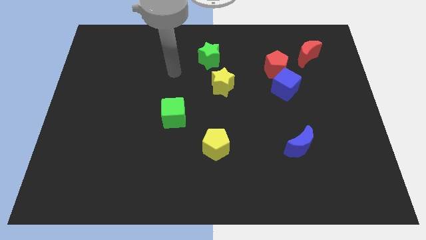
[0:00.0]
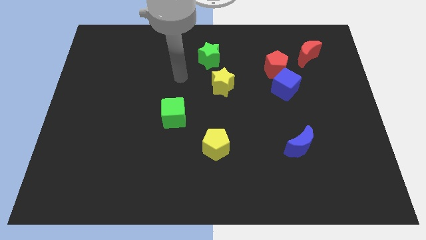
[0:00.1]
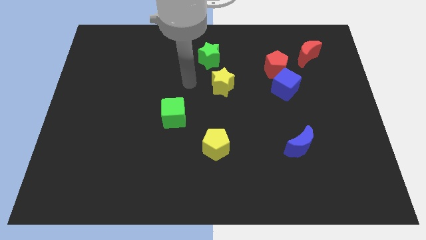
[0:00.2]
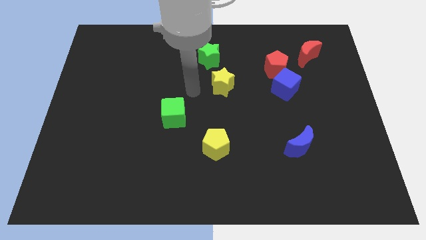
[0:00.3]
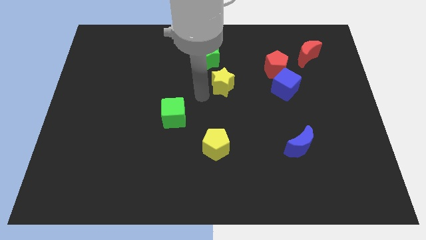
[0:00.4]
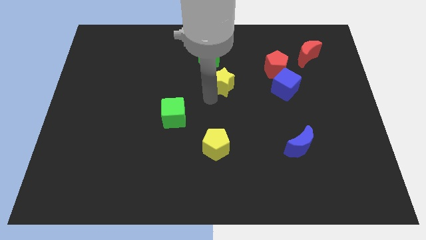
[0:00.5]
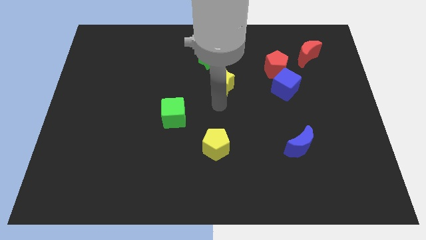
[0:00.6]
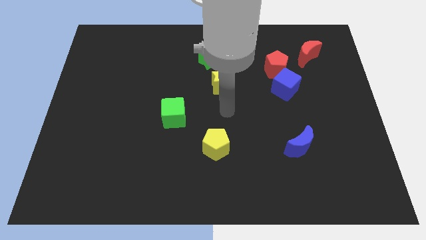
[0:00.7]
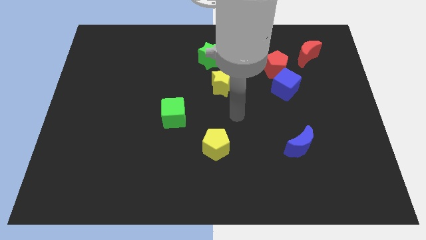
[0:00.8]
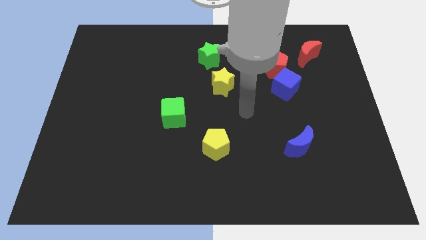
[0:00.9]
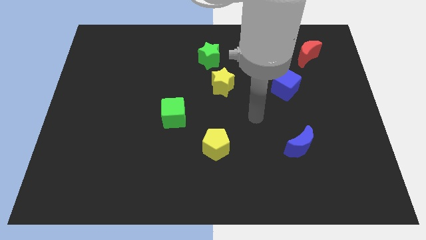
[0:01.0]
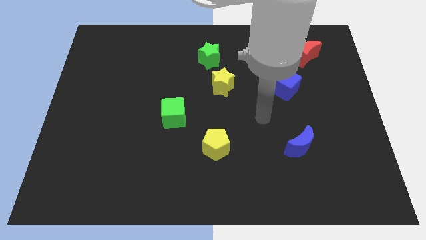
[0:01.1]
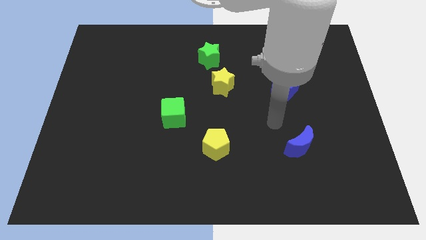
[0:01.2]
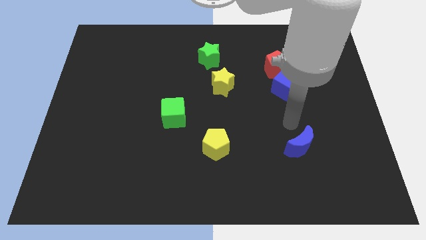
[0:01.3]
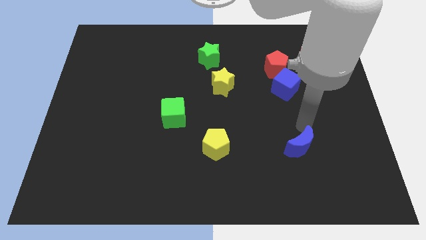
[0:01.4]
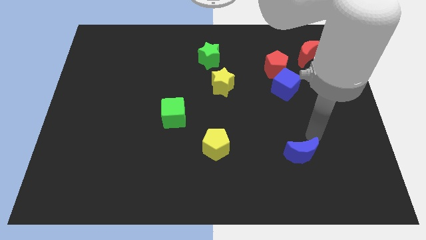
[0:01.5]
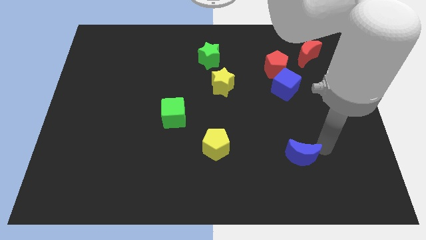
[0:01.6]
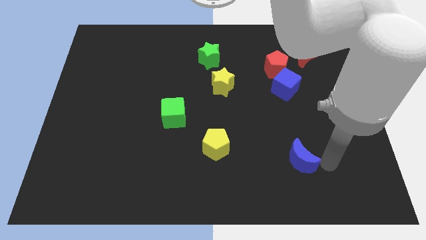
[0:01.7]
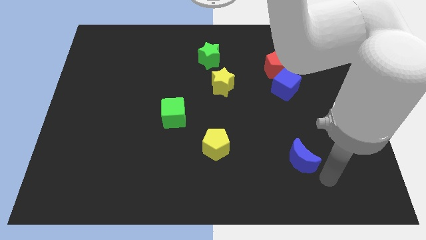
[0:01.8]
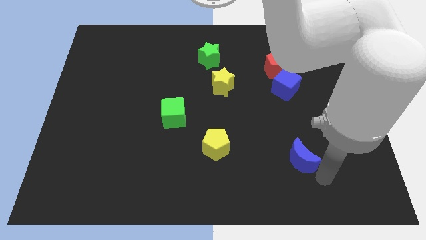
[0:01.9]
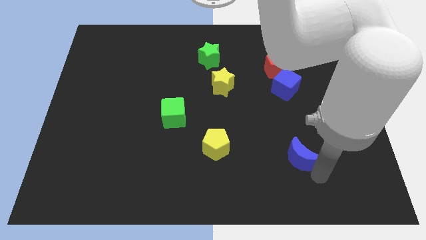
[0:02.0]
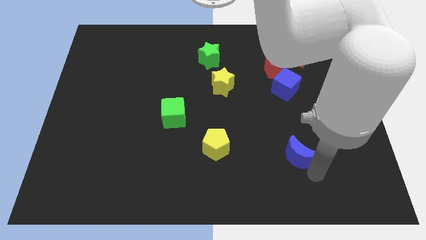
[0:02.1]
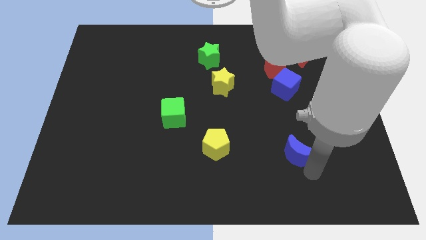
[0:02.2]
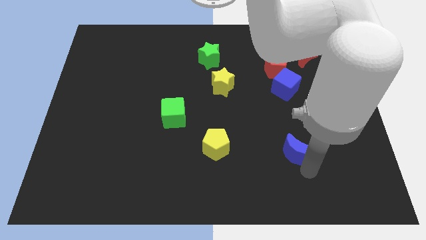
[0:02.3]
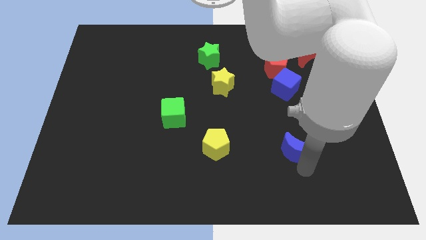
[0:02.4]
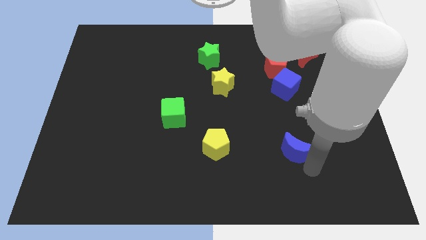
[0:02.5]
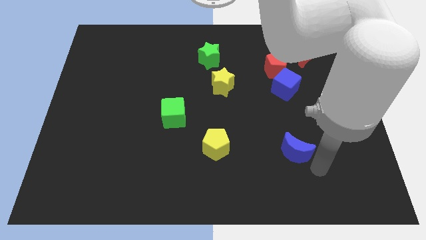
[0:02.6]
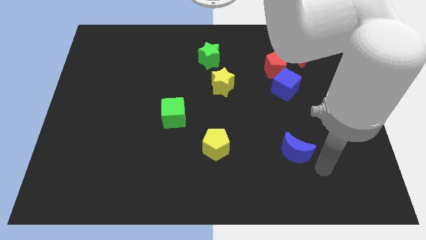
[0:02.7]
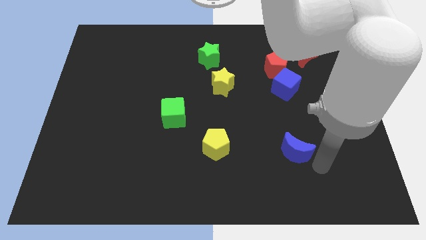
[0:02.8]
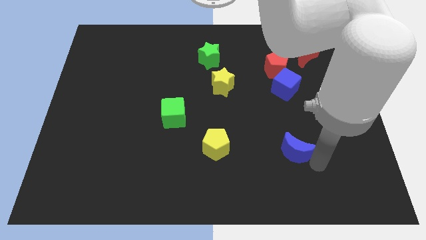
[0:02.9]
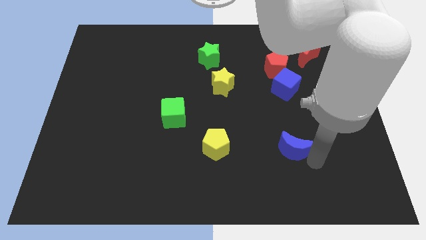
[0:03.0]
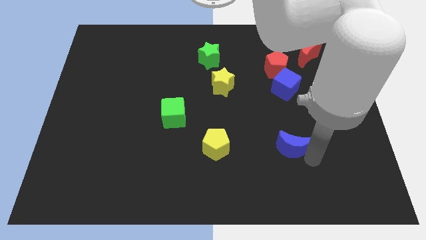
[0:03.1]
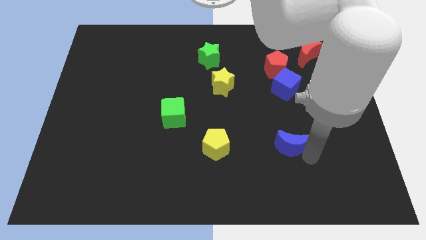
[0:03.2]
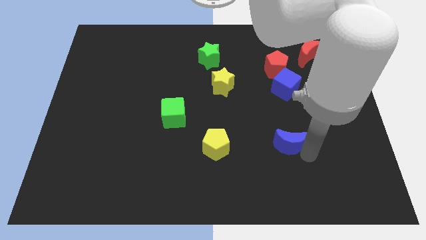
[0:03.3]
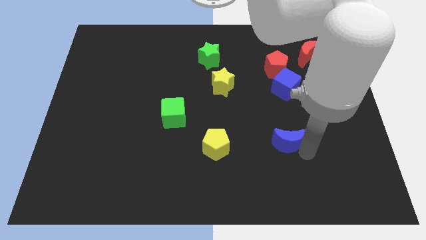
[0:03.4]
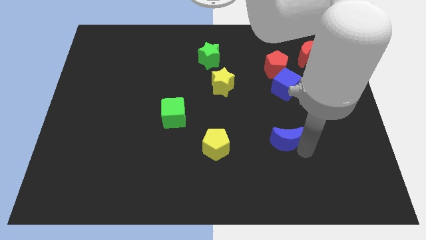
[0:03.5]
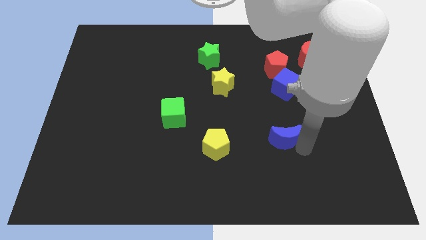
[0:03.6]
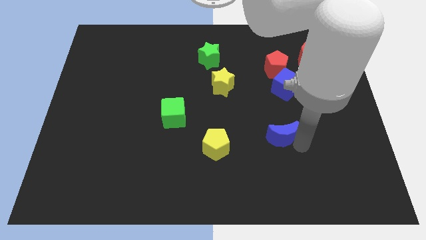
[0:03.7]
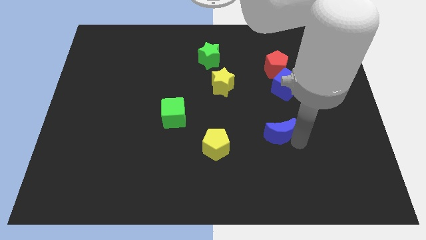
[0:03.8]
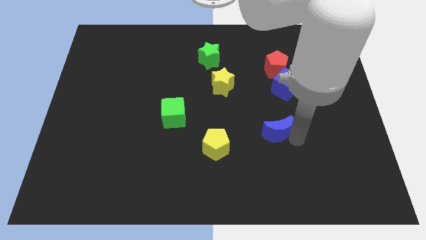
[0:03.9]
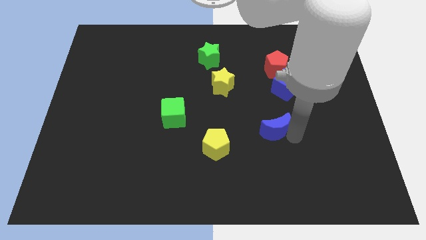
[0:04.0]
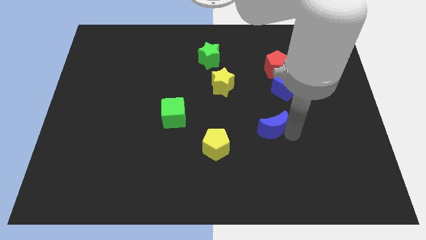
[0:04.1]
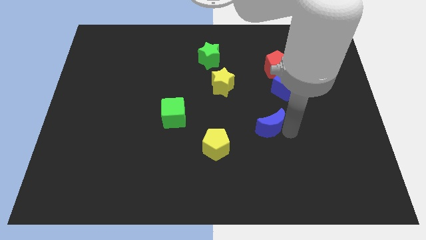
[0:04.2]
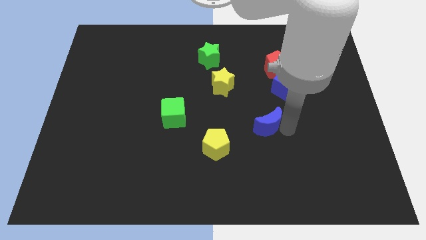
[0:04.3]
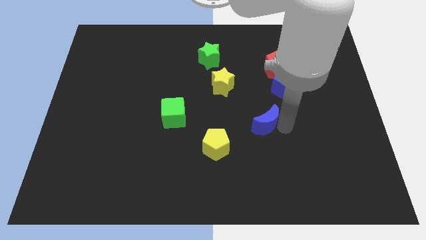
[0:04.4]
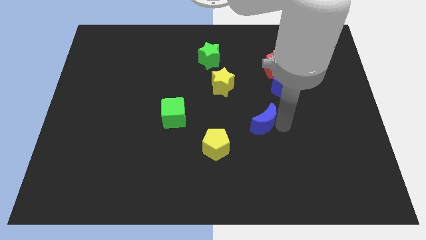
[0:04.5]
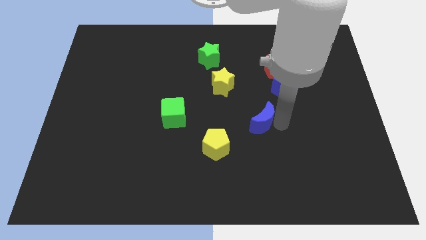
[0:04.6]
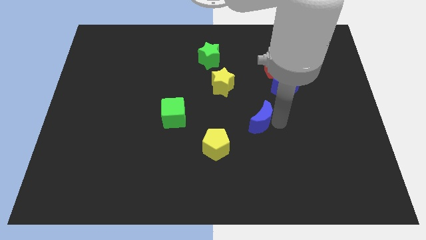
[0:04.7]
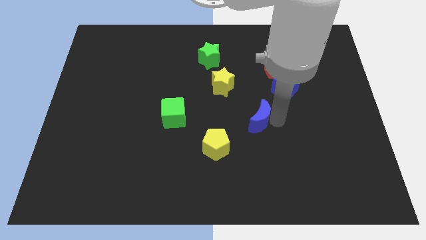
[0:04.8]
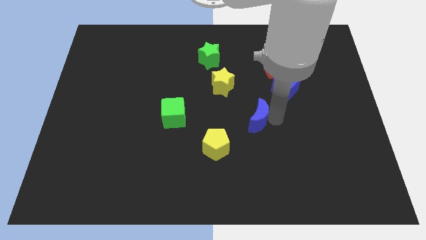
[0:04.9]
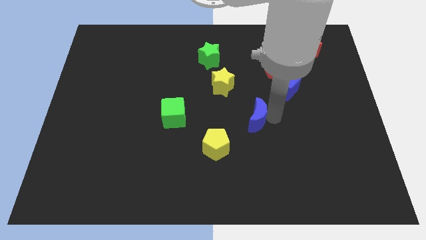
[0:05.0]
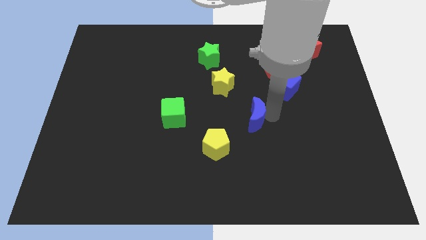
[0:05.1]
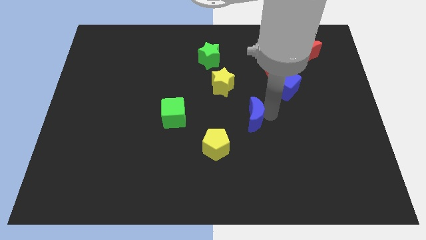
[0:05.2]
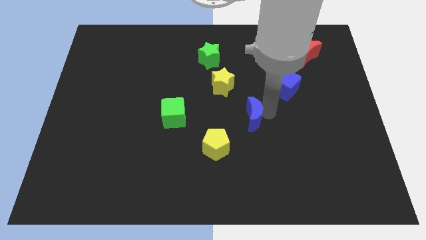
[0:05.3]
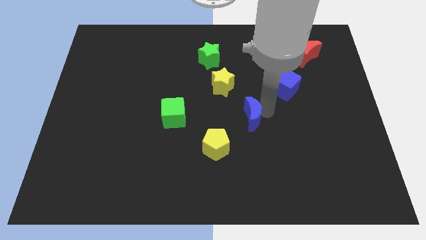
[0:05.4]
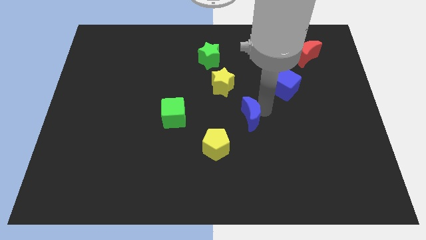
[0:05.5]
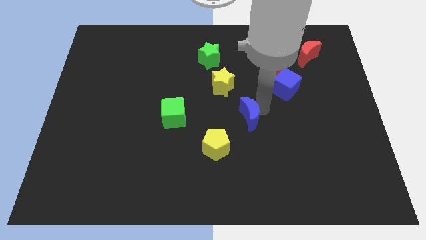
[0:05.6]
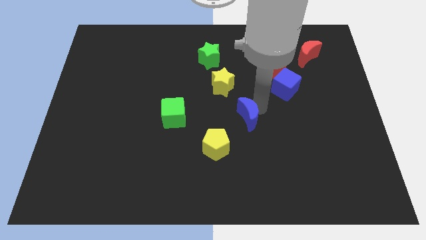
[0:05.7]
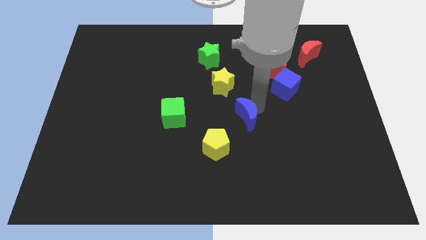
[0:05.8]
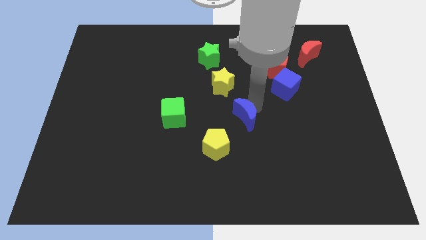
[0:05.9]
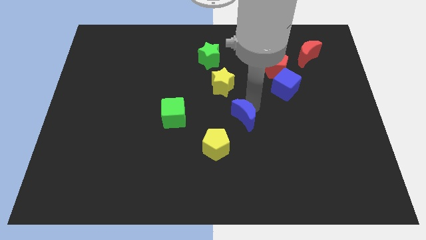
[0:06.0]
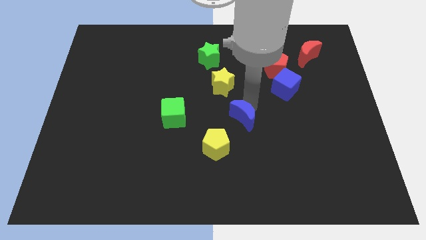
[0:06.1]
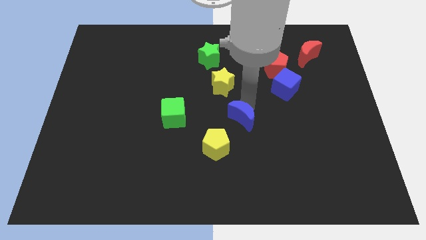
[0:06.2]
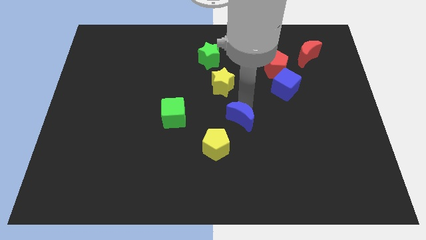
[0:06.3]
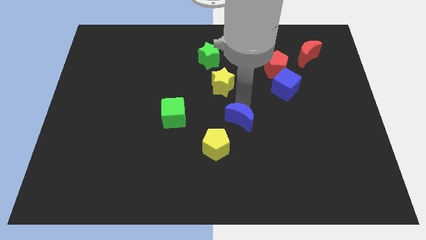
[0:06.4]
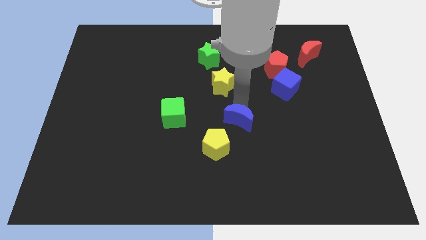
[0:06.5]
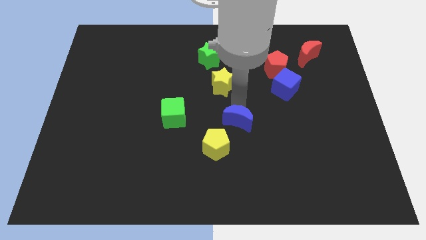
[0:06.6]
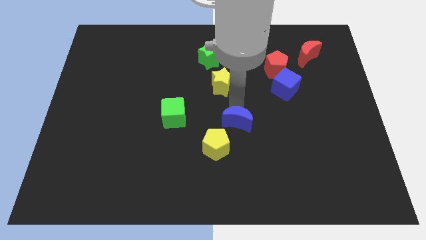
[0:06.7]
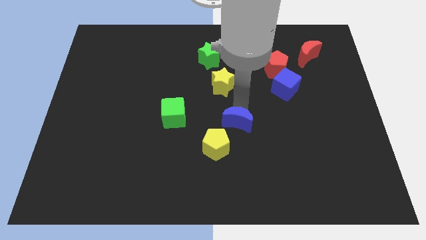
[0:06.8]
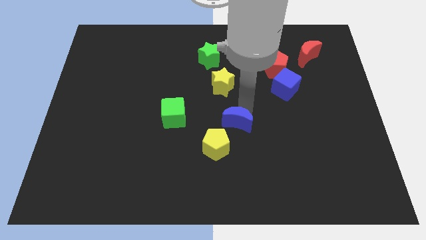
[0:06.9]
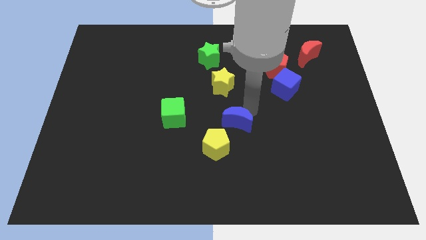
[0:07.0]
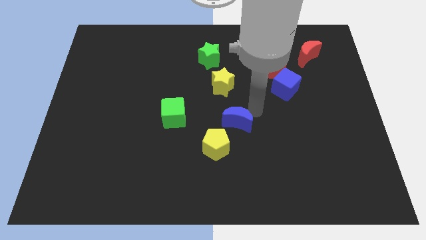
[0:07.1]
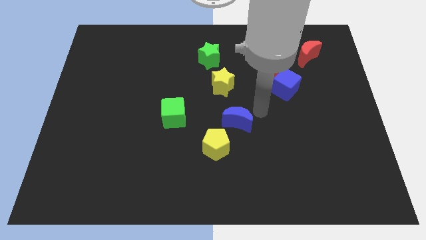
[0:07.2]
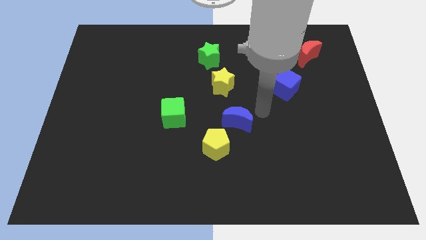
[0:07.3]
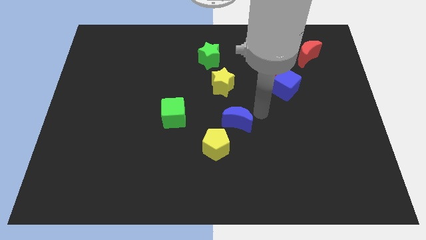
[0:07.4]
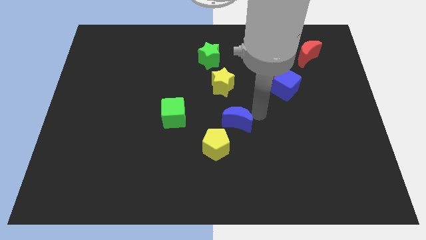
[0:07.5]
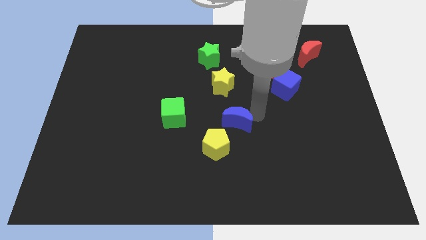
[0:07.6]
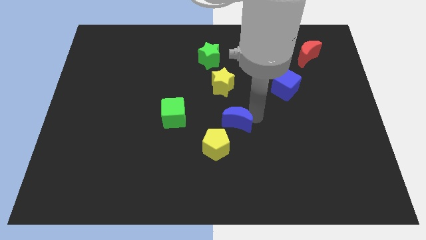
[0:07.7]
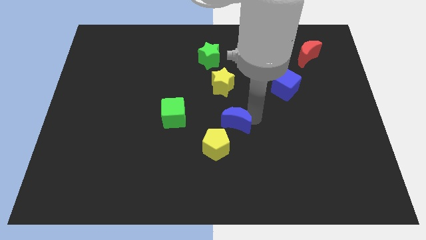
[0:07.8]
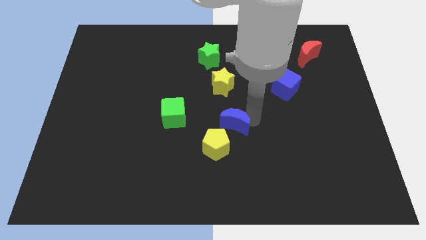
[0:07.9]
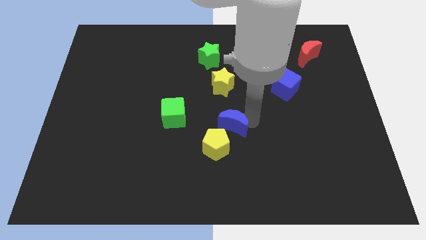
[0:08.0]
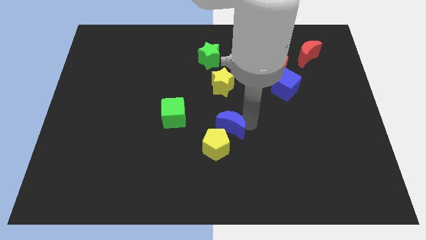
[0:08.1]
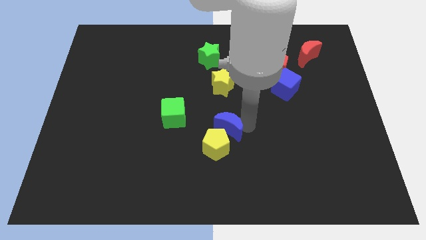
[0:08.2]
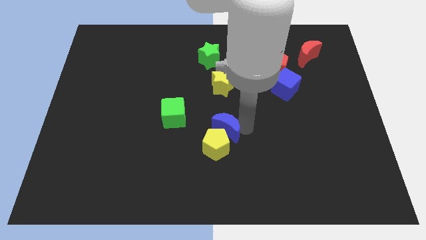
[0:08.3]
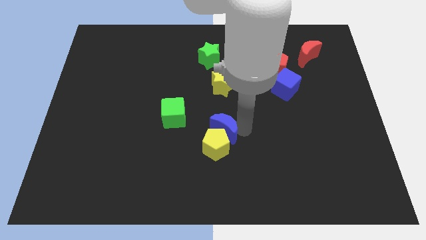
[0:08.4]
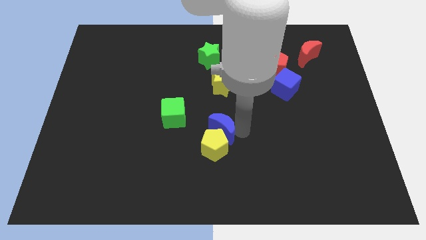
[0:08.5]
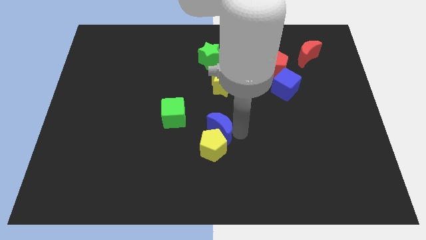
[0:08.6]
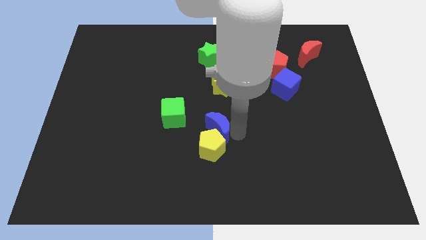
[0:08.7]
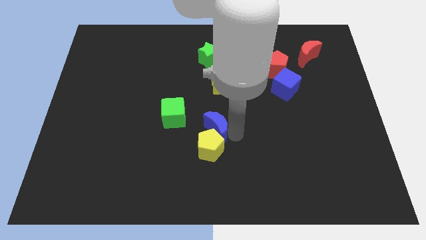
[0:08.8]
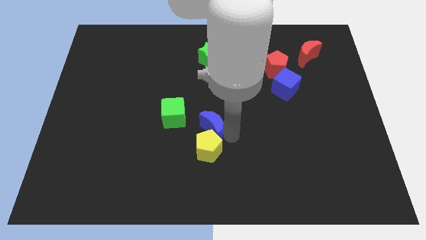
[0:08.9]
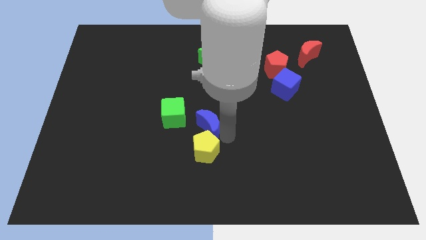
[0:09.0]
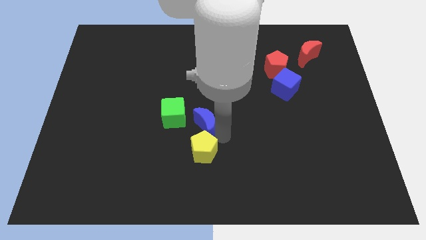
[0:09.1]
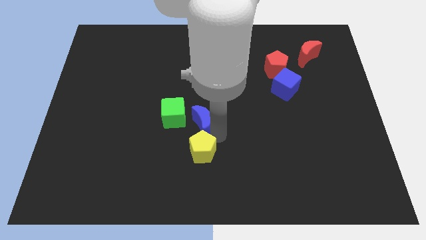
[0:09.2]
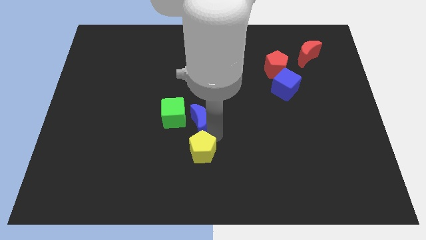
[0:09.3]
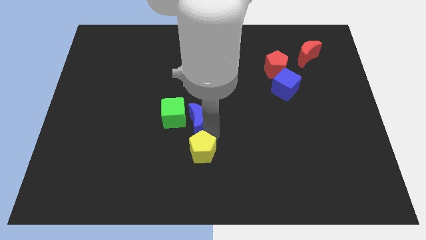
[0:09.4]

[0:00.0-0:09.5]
put the blue moon to the green cube
